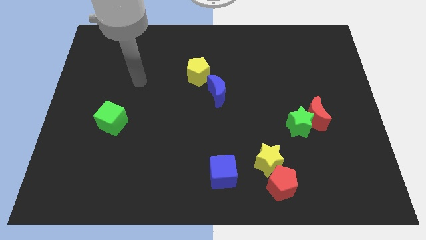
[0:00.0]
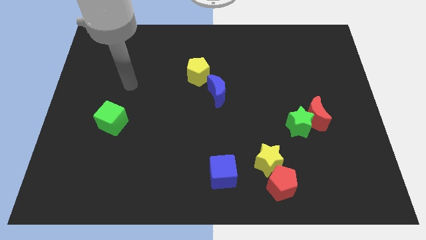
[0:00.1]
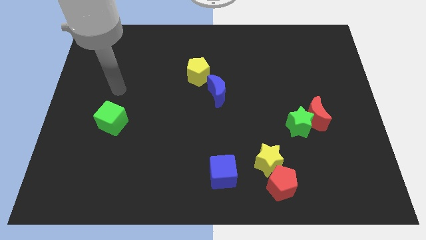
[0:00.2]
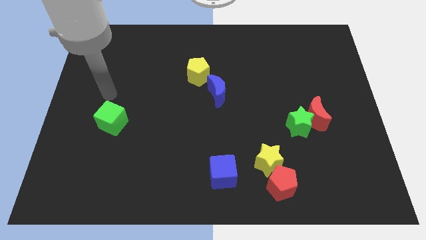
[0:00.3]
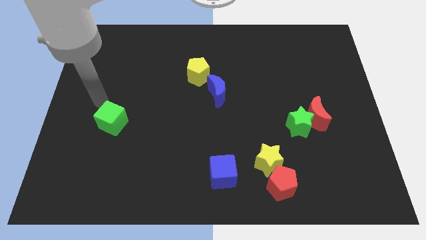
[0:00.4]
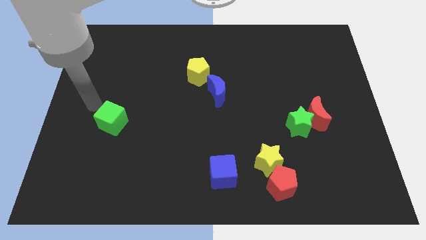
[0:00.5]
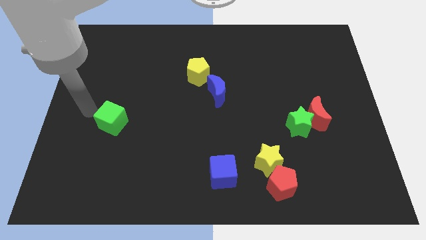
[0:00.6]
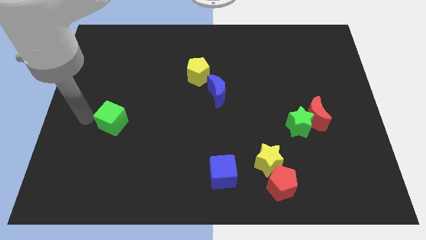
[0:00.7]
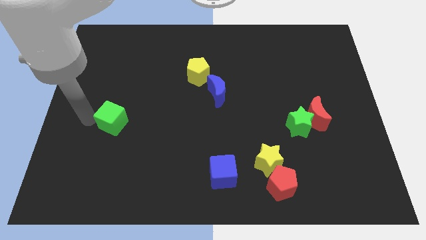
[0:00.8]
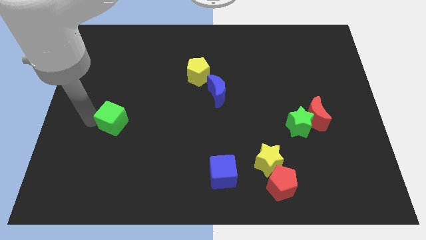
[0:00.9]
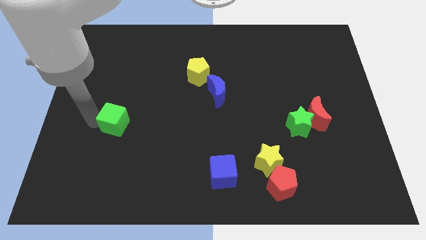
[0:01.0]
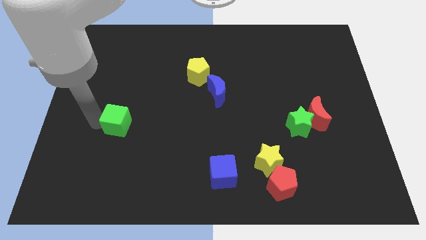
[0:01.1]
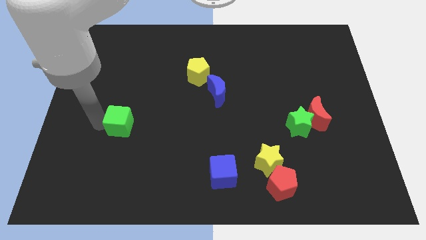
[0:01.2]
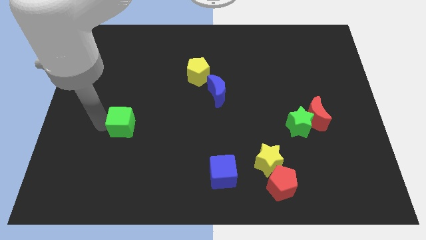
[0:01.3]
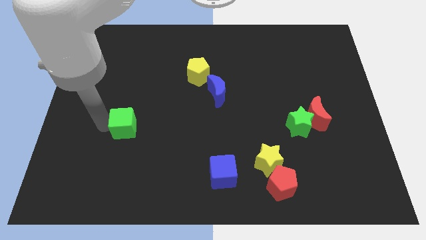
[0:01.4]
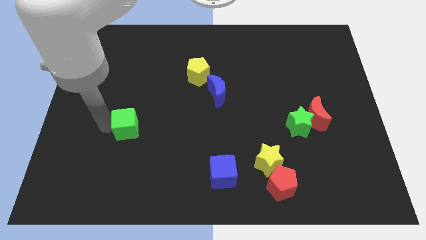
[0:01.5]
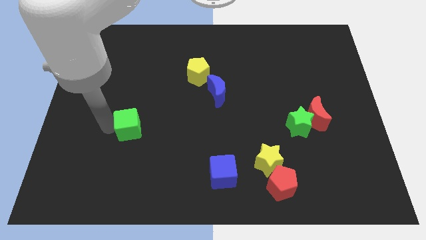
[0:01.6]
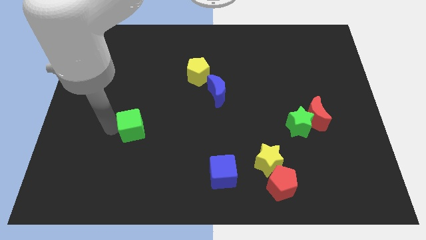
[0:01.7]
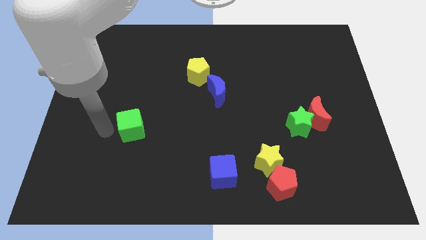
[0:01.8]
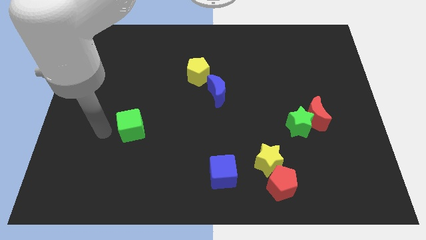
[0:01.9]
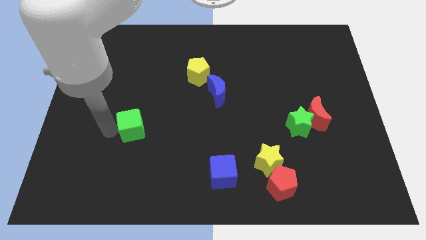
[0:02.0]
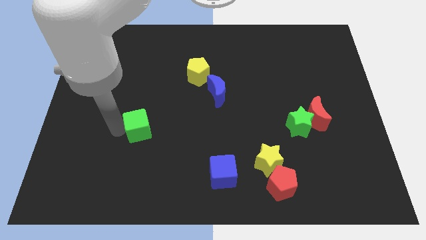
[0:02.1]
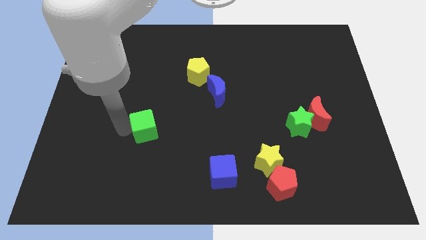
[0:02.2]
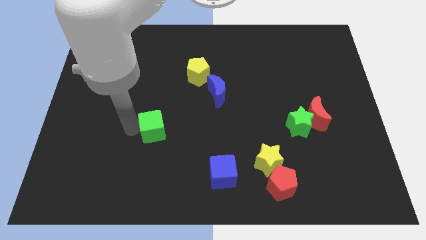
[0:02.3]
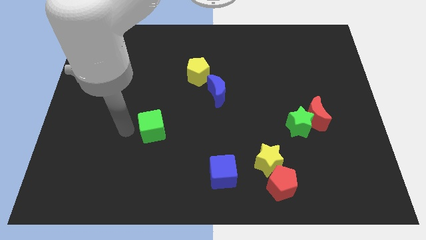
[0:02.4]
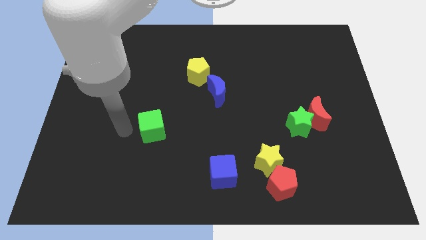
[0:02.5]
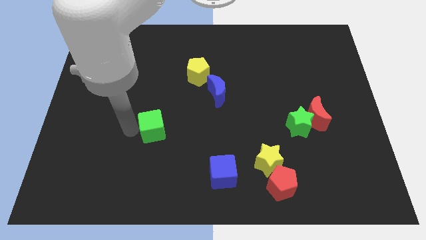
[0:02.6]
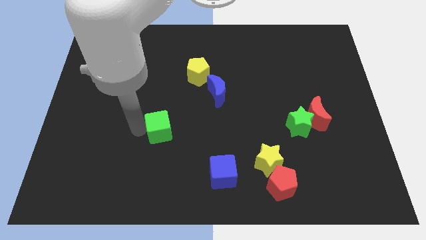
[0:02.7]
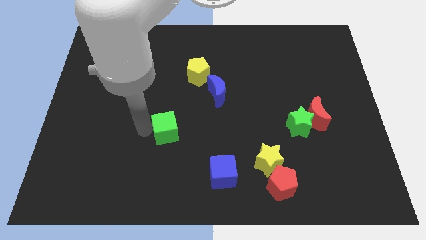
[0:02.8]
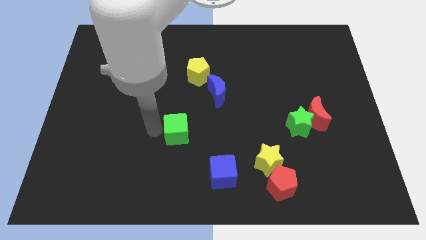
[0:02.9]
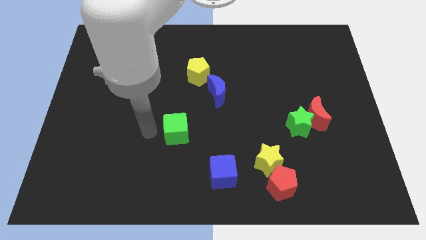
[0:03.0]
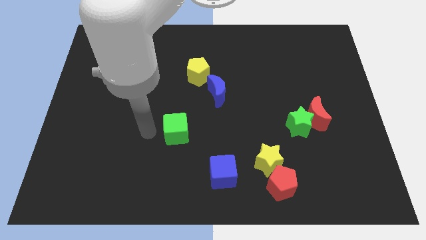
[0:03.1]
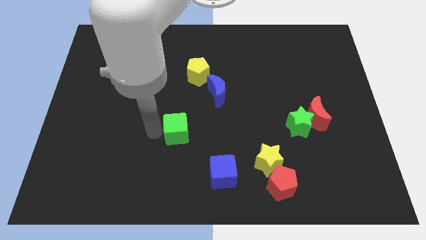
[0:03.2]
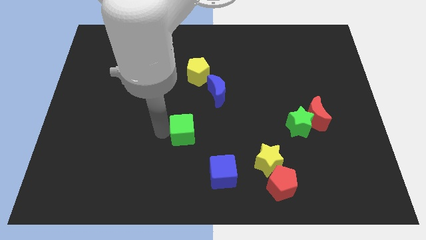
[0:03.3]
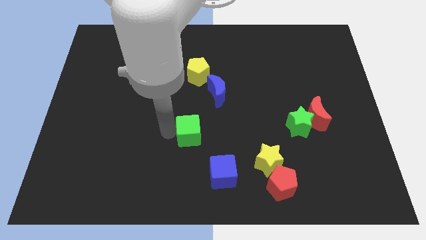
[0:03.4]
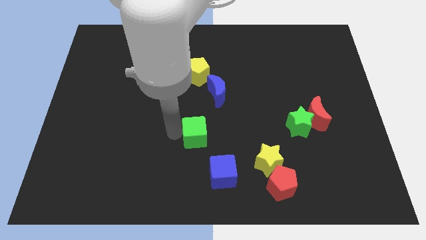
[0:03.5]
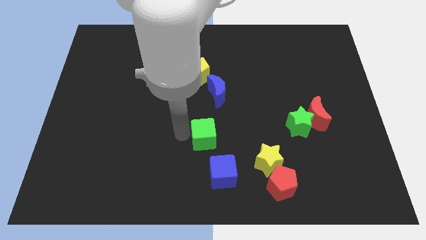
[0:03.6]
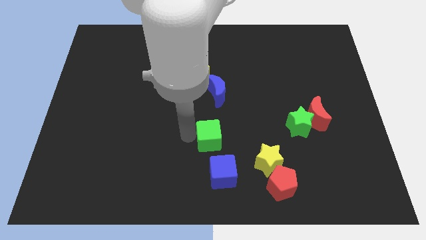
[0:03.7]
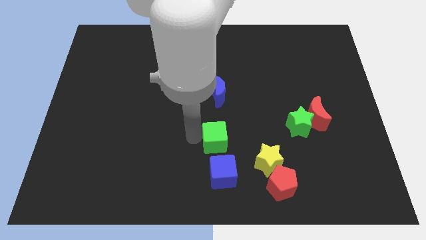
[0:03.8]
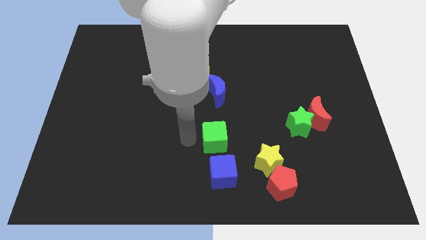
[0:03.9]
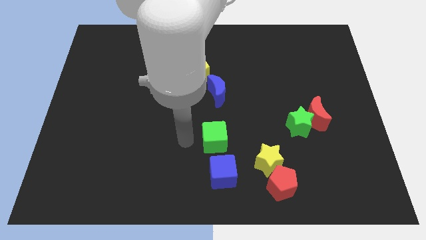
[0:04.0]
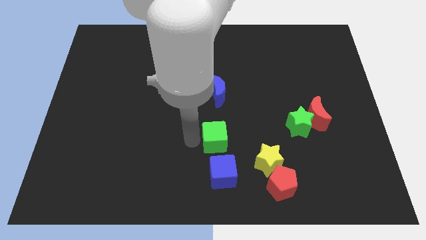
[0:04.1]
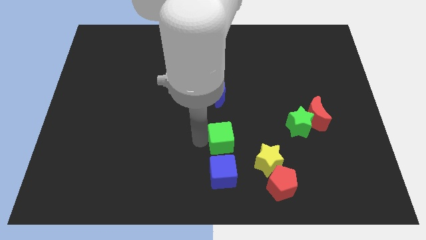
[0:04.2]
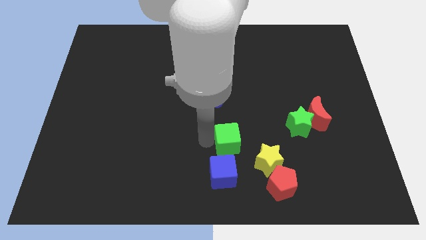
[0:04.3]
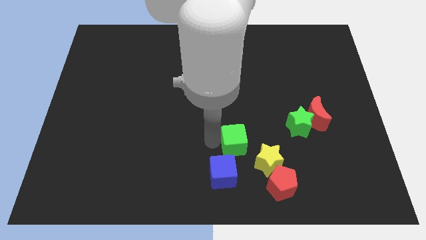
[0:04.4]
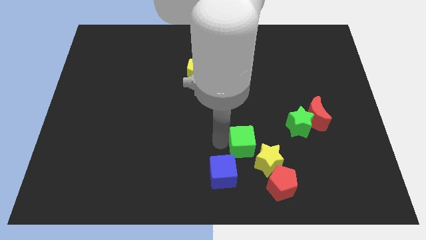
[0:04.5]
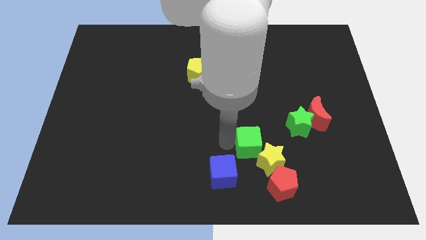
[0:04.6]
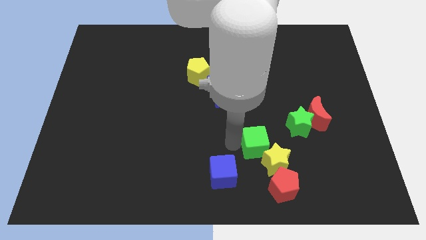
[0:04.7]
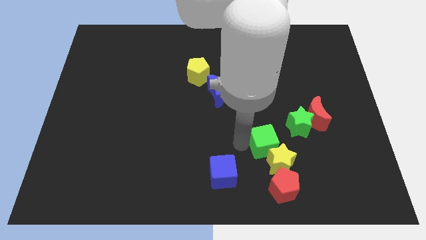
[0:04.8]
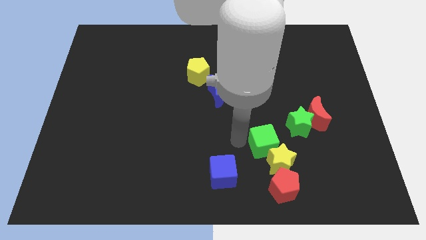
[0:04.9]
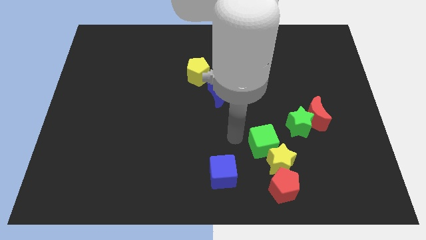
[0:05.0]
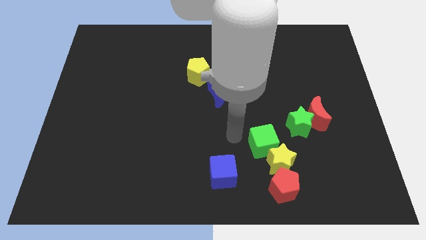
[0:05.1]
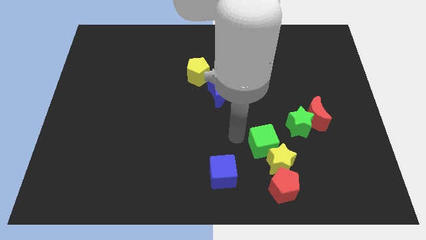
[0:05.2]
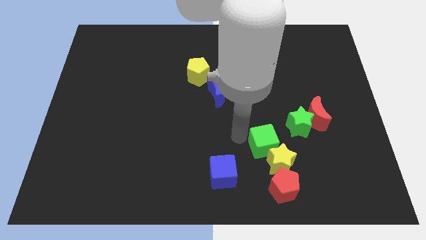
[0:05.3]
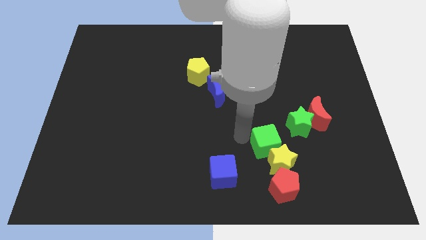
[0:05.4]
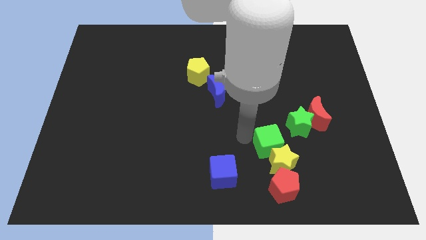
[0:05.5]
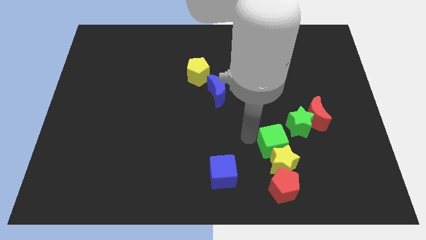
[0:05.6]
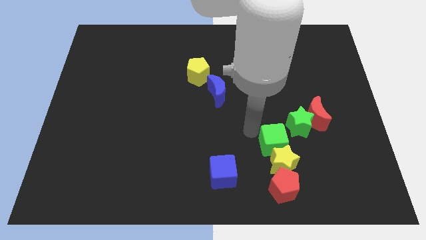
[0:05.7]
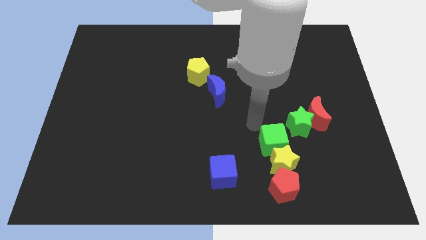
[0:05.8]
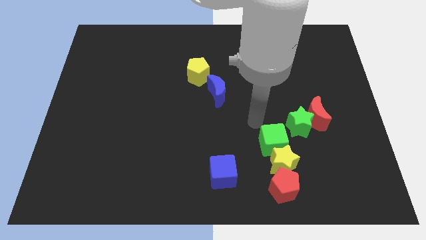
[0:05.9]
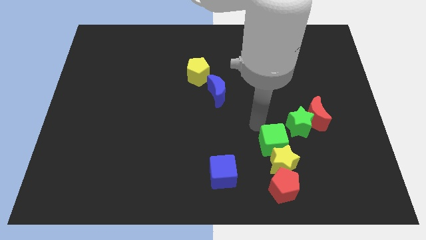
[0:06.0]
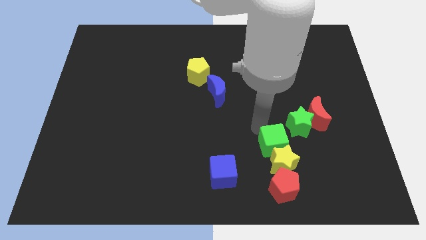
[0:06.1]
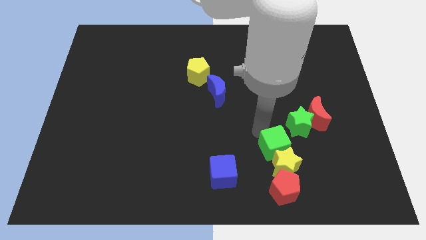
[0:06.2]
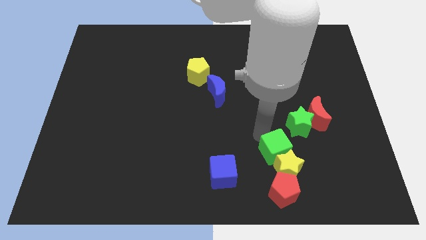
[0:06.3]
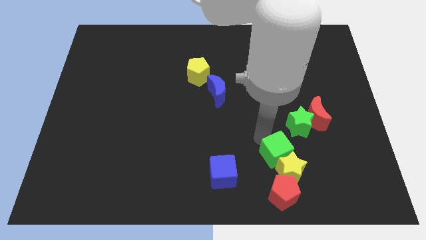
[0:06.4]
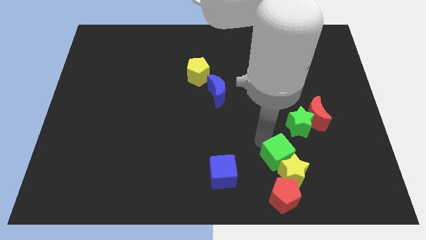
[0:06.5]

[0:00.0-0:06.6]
push the green cube to the right side of the blue cube
